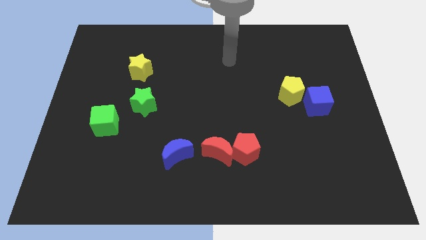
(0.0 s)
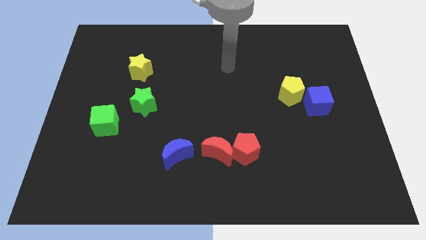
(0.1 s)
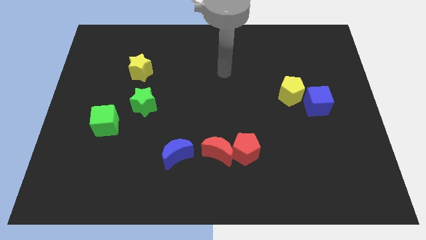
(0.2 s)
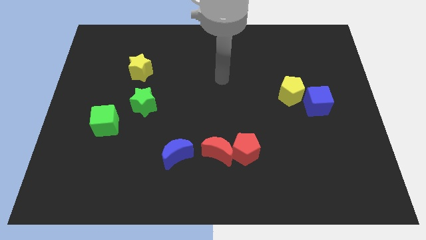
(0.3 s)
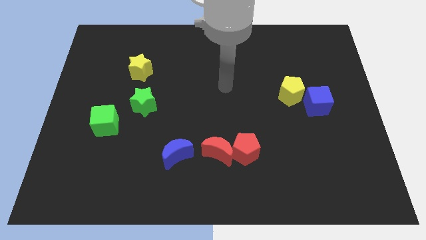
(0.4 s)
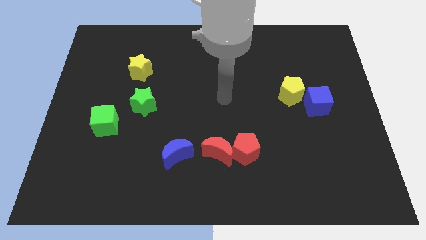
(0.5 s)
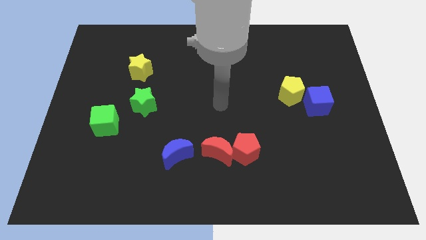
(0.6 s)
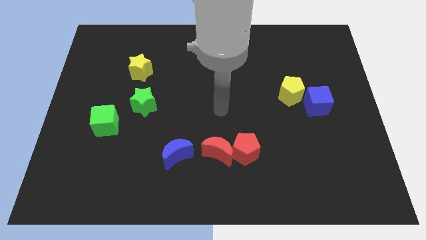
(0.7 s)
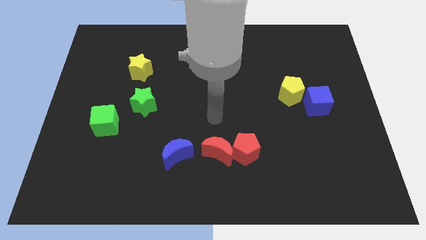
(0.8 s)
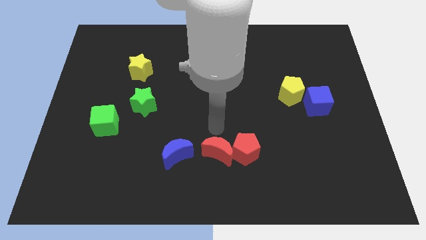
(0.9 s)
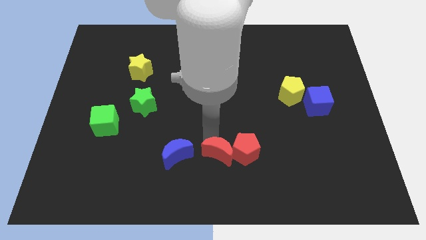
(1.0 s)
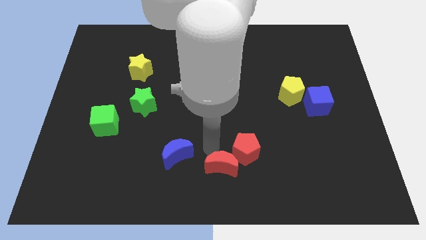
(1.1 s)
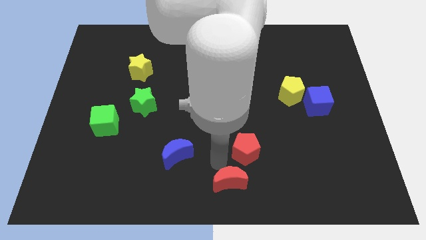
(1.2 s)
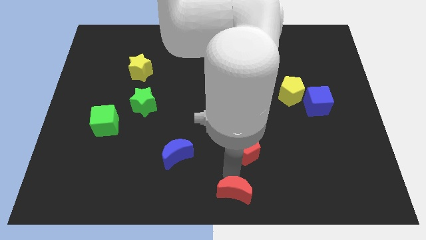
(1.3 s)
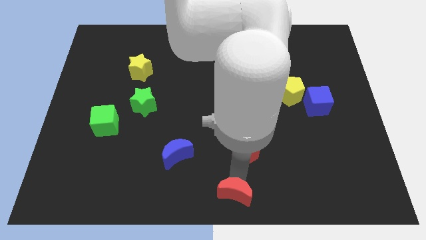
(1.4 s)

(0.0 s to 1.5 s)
pull the red pentagon apart from the red moon

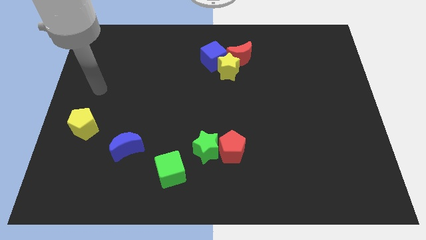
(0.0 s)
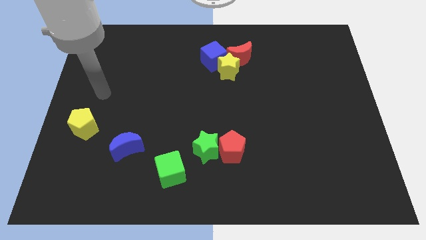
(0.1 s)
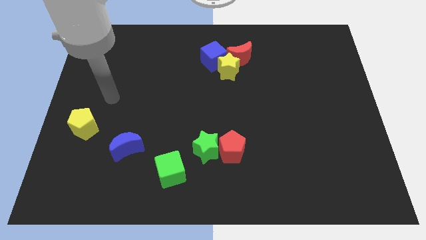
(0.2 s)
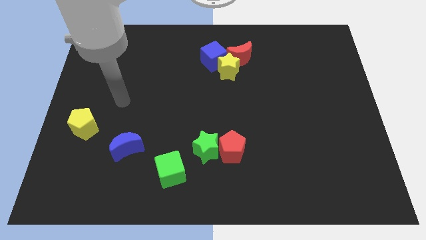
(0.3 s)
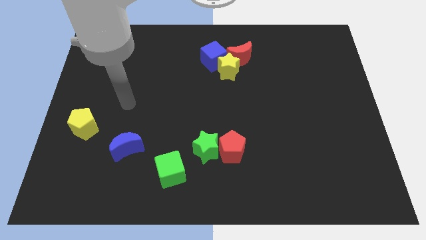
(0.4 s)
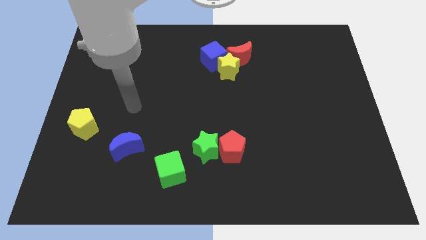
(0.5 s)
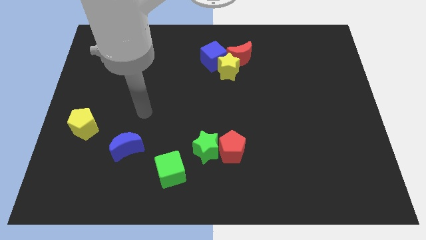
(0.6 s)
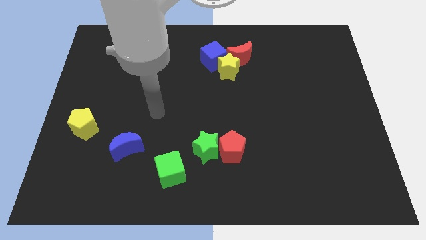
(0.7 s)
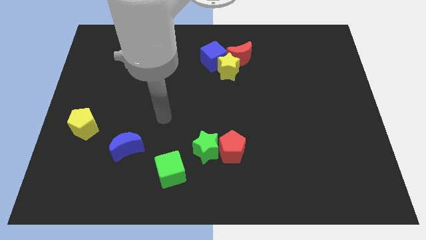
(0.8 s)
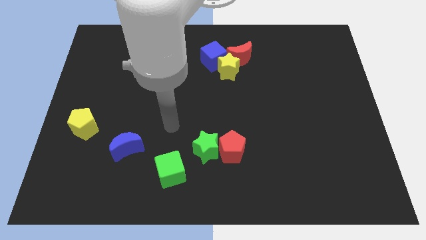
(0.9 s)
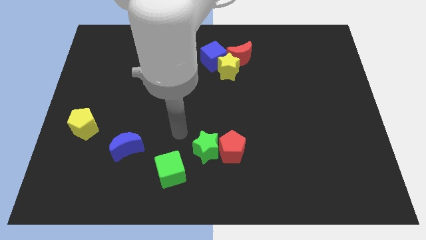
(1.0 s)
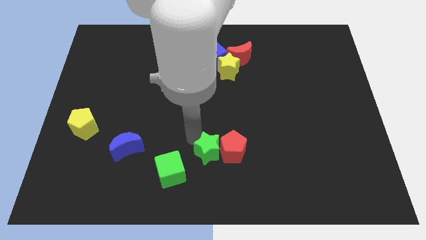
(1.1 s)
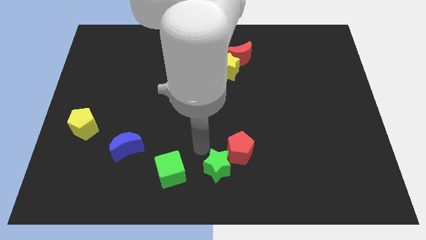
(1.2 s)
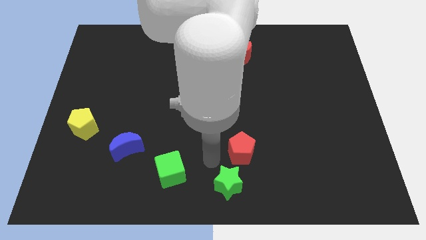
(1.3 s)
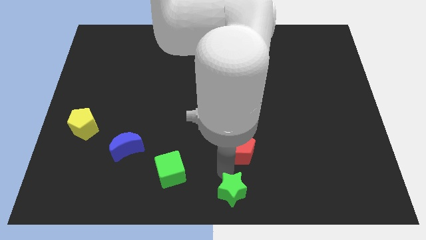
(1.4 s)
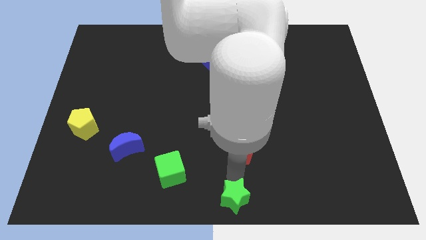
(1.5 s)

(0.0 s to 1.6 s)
pull the red pentagon apart from the green star

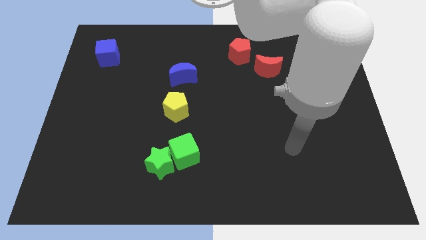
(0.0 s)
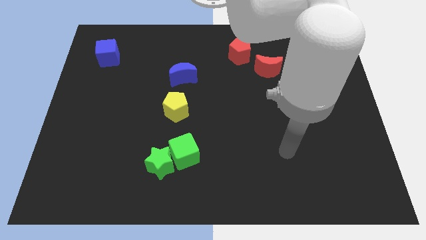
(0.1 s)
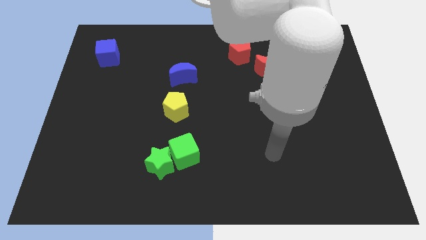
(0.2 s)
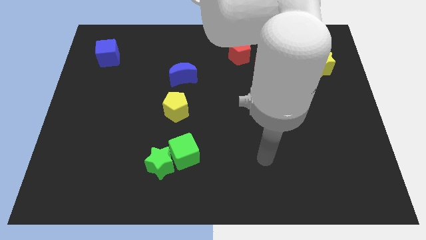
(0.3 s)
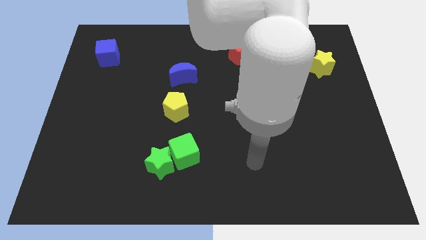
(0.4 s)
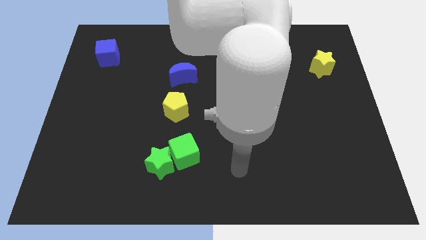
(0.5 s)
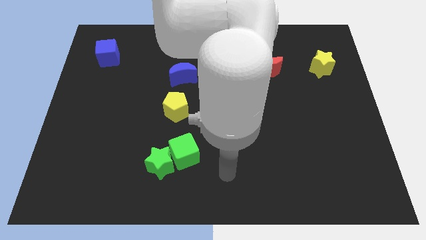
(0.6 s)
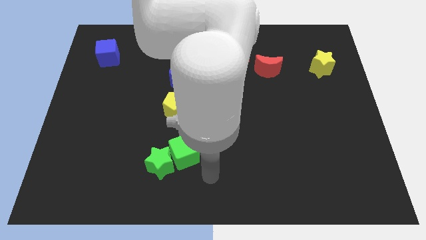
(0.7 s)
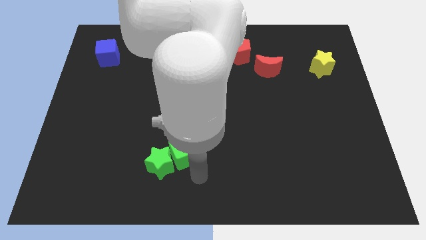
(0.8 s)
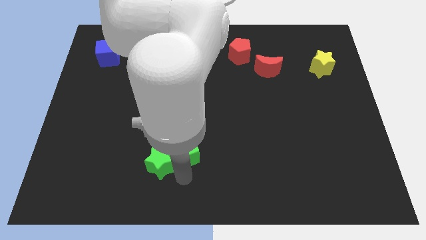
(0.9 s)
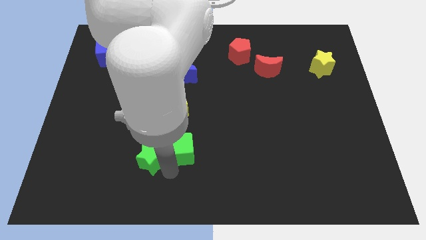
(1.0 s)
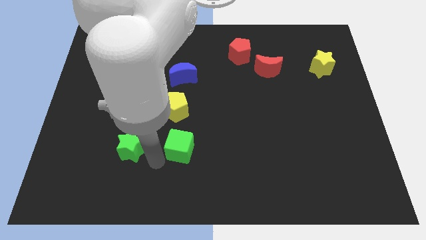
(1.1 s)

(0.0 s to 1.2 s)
move the green cube away from the green star

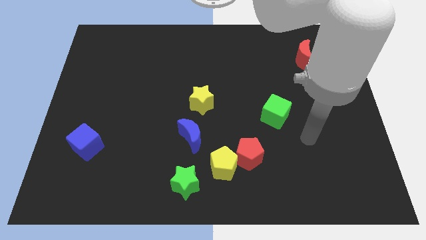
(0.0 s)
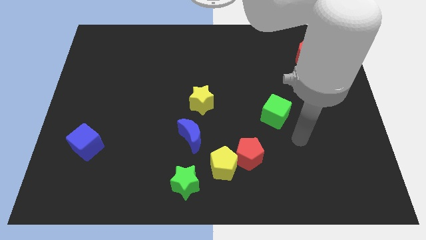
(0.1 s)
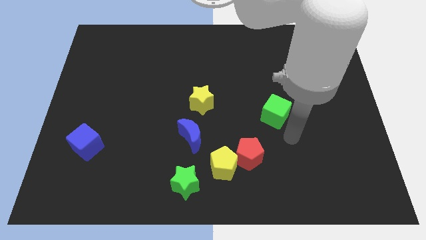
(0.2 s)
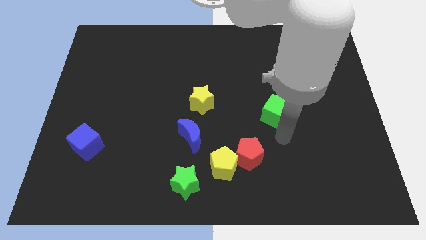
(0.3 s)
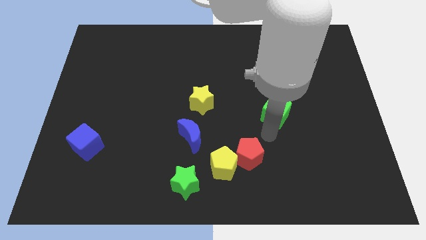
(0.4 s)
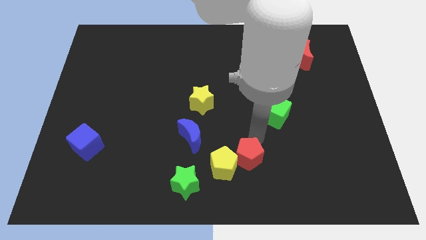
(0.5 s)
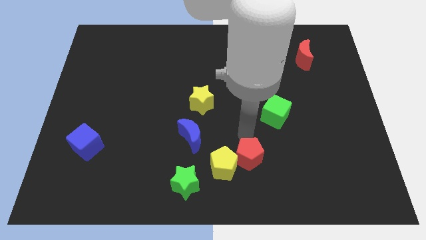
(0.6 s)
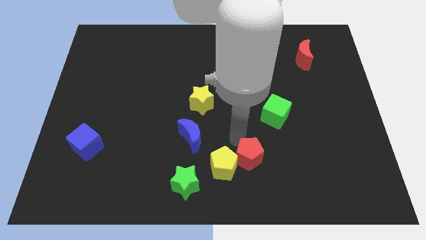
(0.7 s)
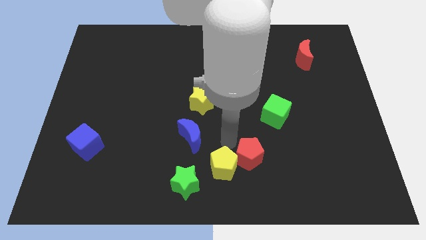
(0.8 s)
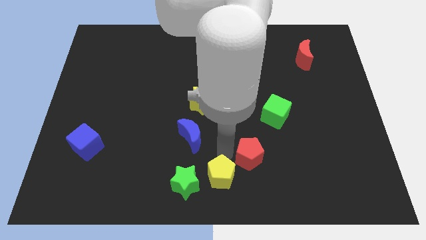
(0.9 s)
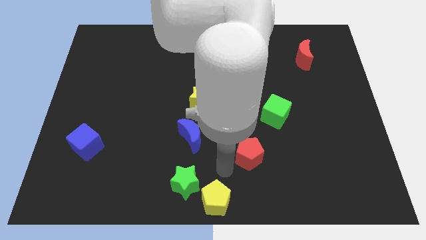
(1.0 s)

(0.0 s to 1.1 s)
move the red pentagon away from the yellow pentagon

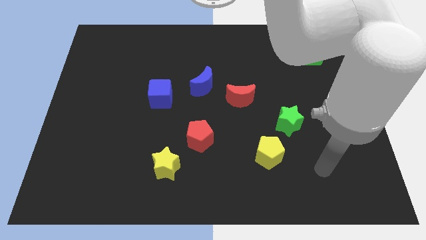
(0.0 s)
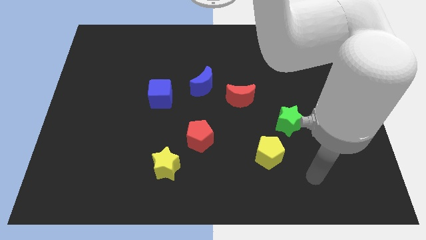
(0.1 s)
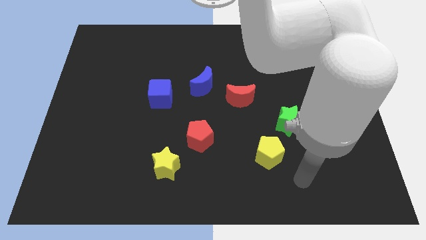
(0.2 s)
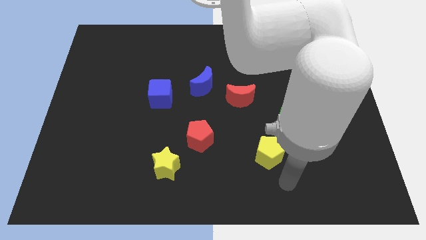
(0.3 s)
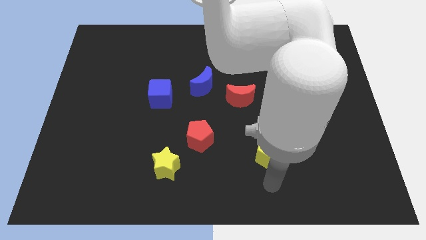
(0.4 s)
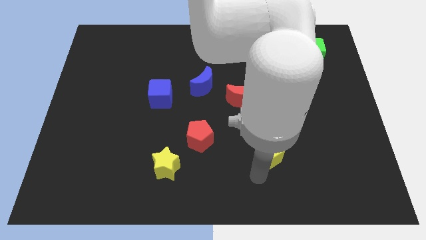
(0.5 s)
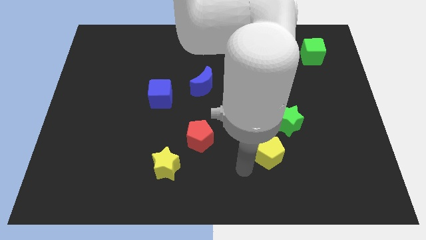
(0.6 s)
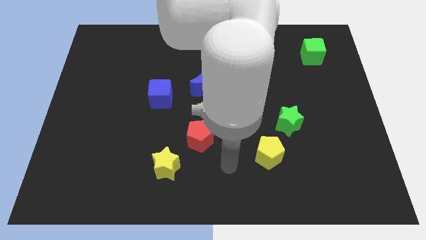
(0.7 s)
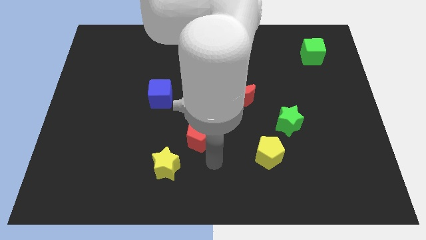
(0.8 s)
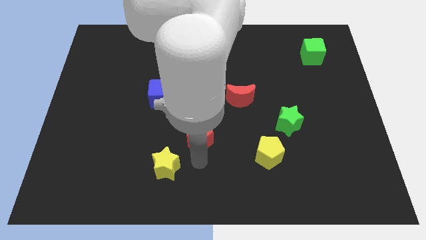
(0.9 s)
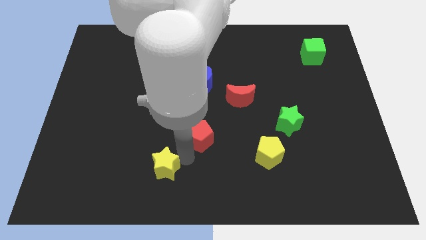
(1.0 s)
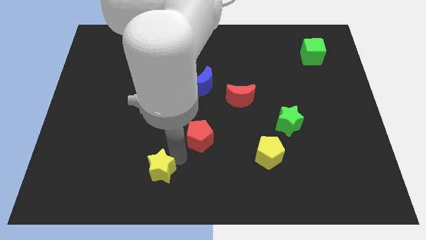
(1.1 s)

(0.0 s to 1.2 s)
separate the red pentagon from the yellow star

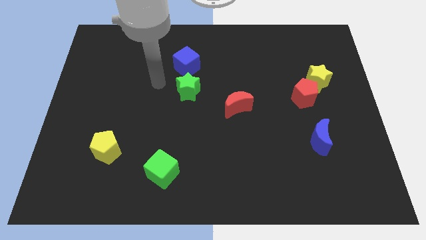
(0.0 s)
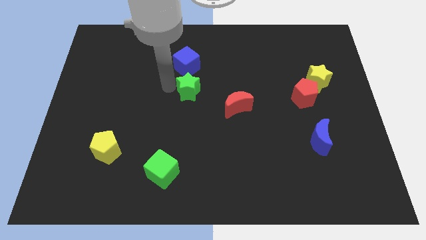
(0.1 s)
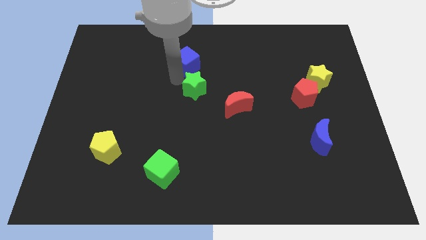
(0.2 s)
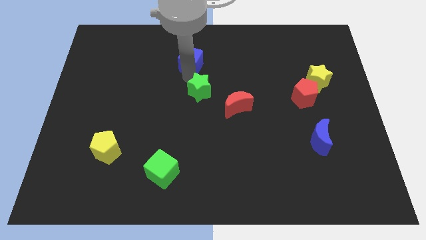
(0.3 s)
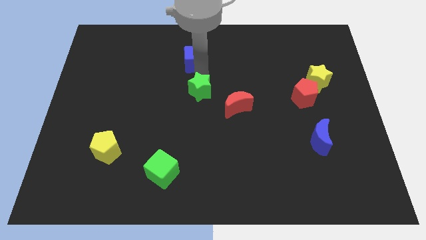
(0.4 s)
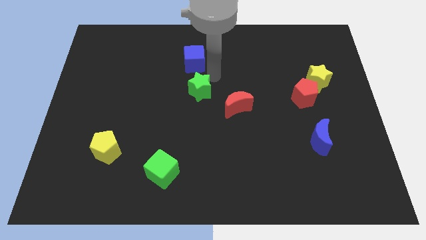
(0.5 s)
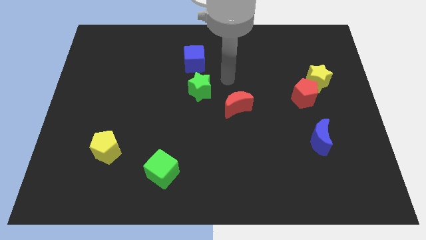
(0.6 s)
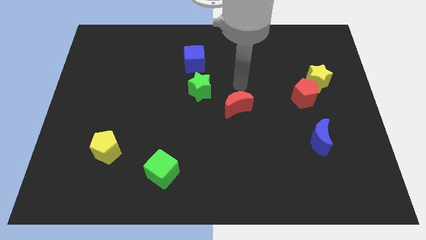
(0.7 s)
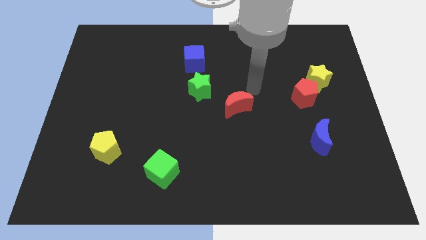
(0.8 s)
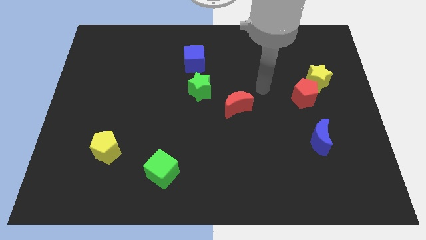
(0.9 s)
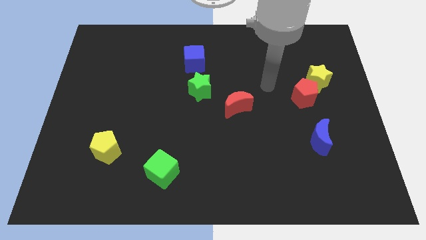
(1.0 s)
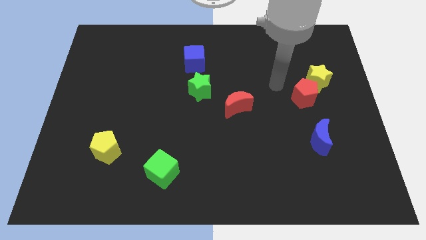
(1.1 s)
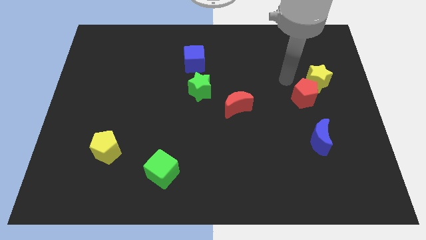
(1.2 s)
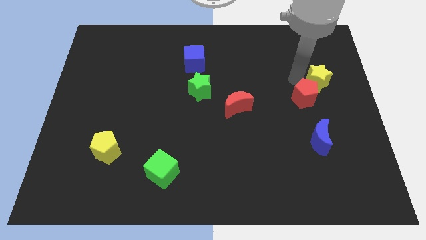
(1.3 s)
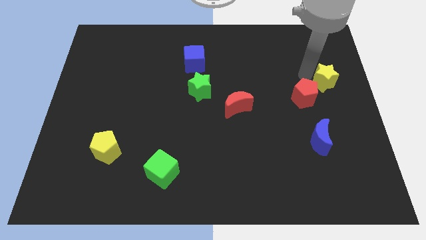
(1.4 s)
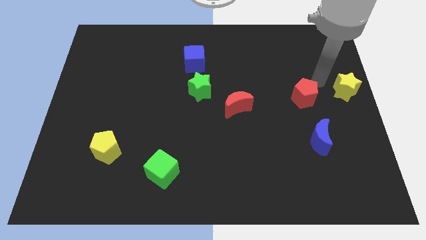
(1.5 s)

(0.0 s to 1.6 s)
move the red pentagon away from the yellow star

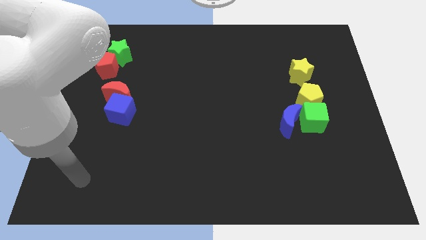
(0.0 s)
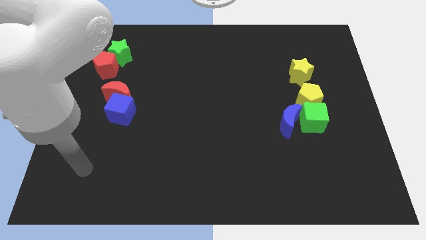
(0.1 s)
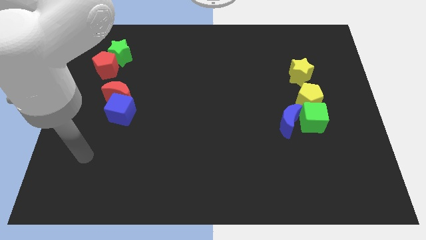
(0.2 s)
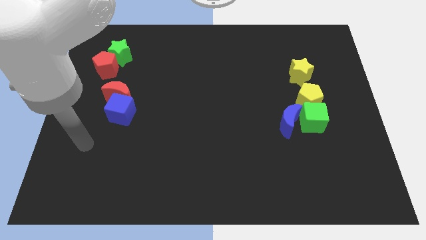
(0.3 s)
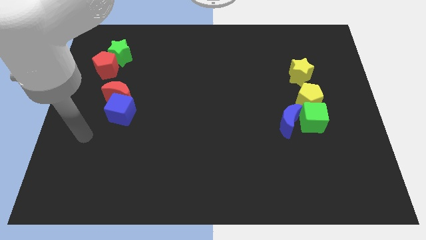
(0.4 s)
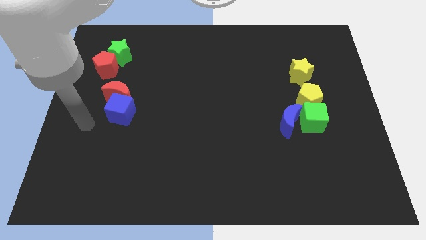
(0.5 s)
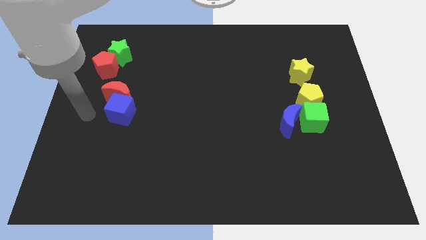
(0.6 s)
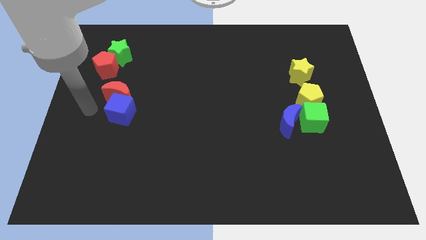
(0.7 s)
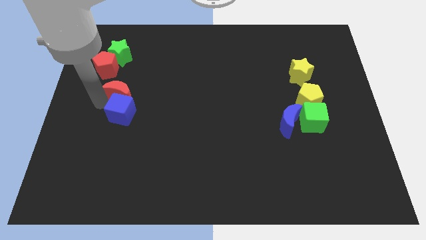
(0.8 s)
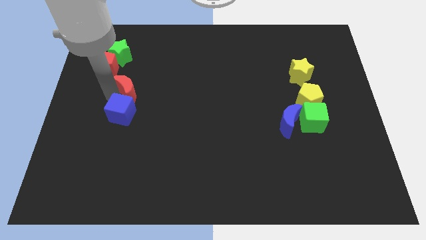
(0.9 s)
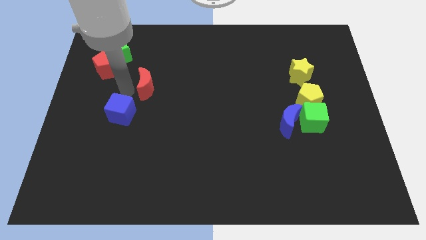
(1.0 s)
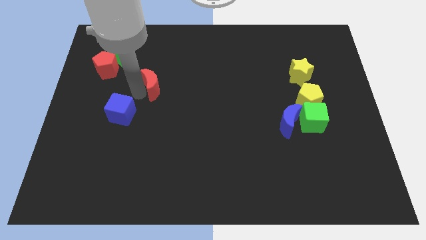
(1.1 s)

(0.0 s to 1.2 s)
separate the blue cube from the red moon
